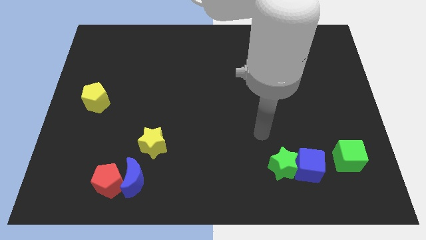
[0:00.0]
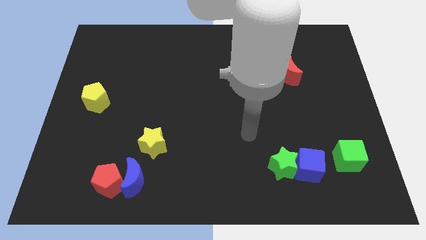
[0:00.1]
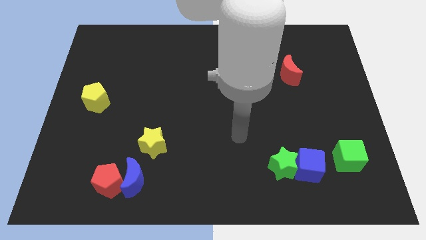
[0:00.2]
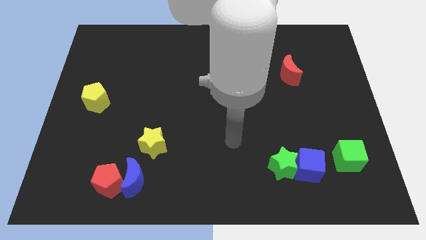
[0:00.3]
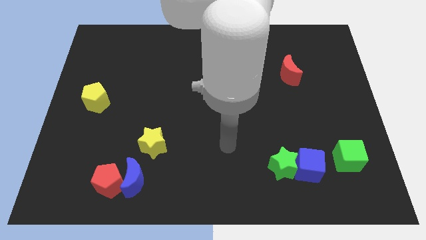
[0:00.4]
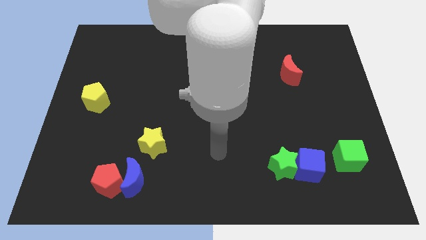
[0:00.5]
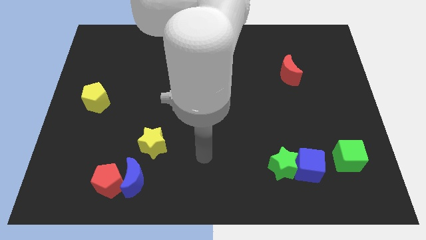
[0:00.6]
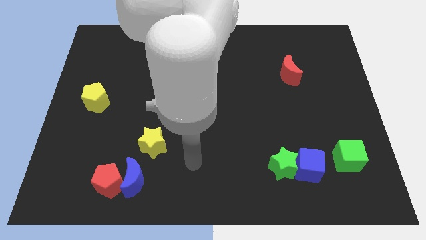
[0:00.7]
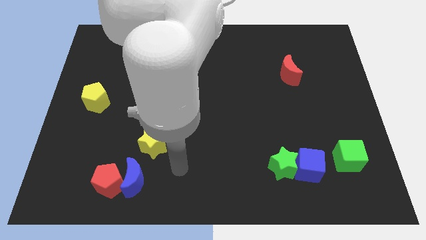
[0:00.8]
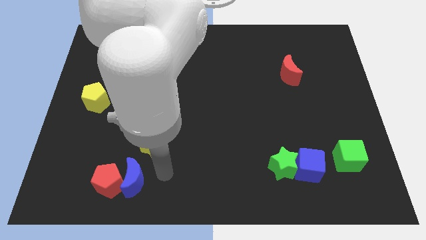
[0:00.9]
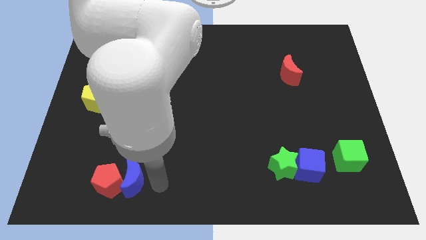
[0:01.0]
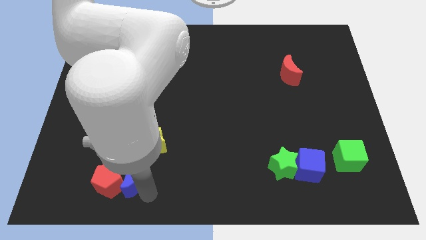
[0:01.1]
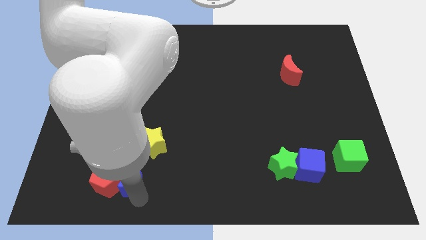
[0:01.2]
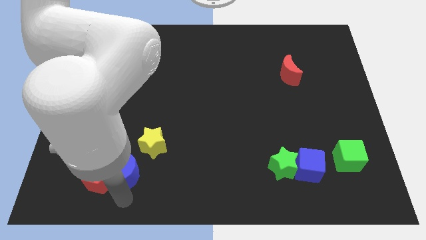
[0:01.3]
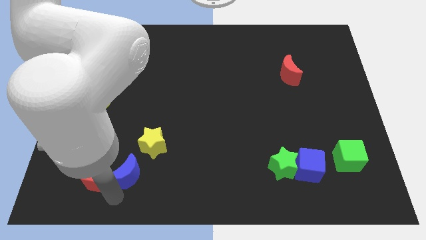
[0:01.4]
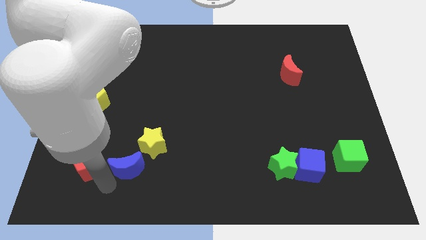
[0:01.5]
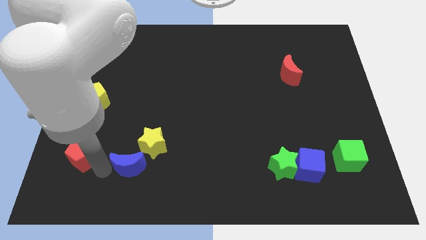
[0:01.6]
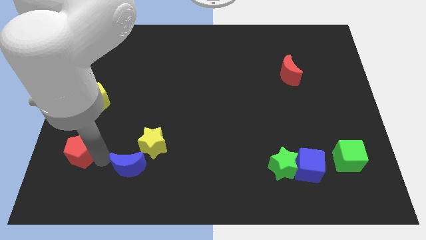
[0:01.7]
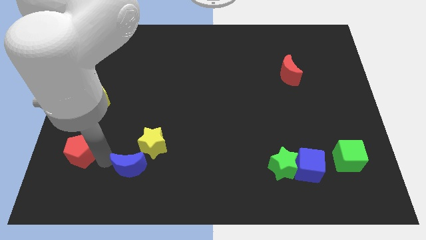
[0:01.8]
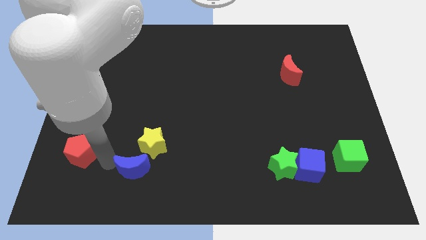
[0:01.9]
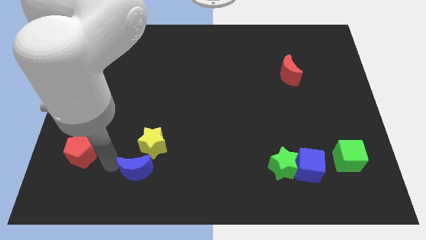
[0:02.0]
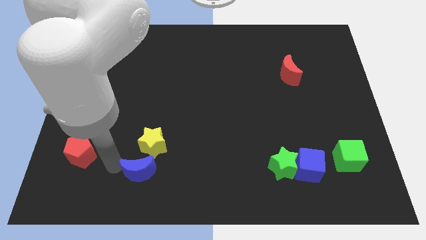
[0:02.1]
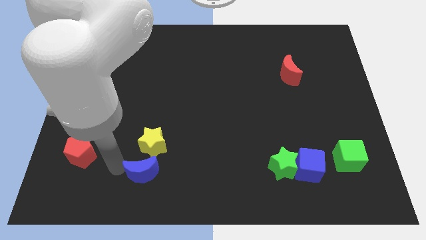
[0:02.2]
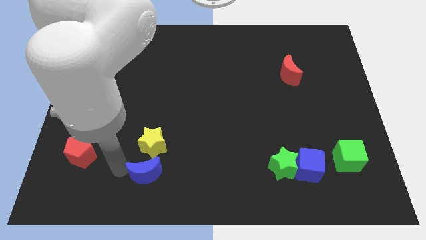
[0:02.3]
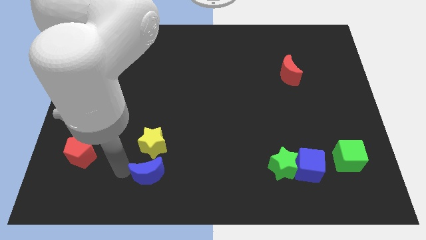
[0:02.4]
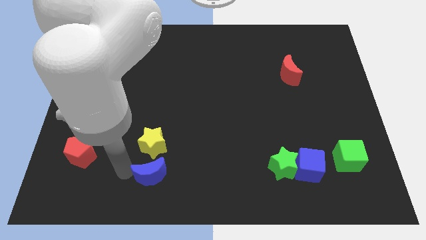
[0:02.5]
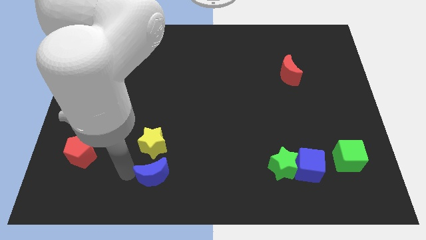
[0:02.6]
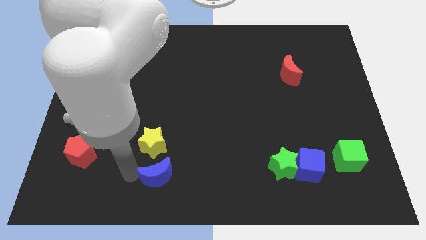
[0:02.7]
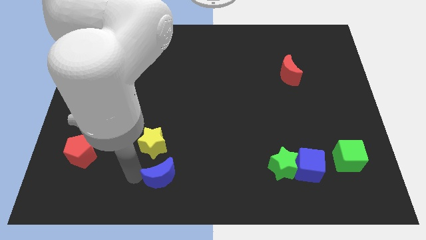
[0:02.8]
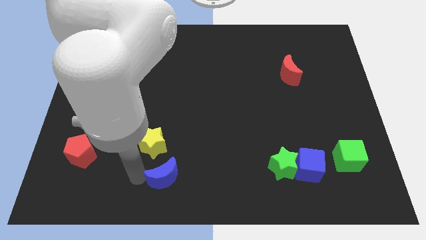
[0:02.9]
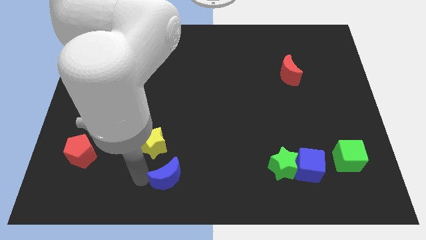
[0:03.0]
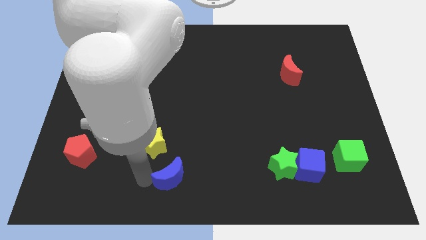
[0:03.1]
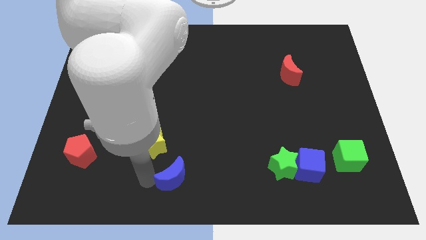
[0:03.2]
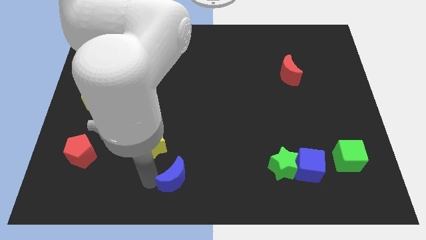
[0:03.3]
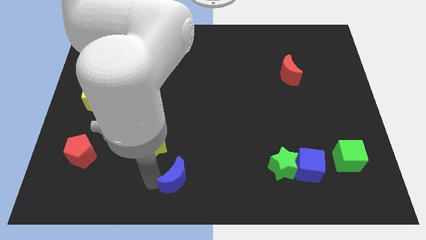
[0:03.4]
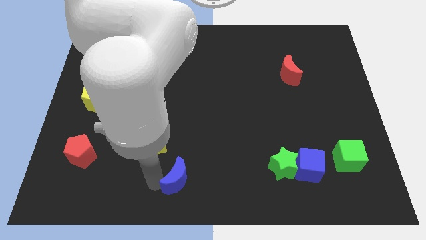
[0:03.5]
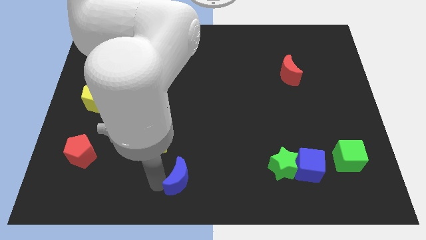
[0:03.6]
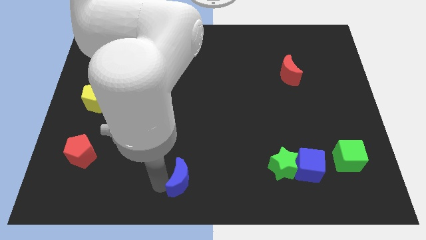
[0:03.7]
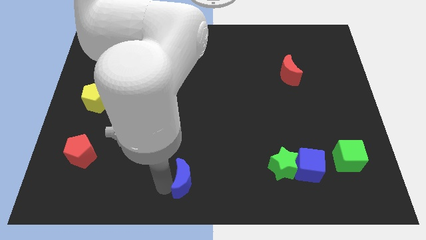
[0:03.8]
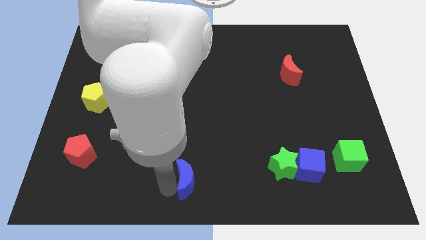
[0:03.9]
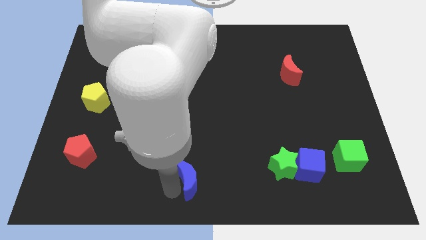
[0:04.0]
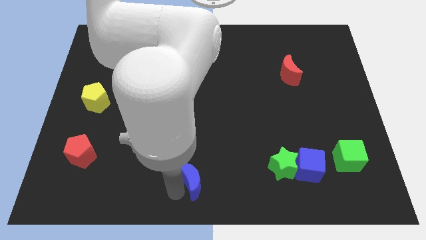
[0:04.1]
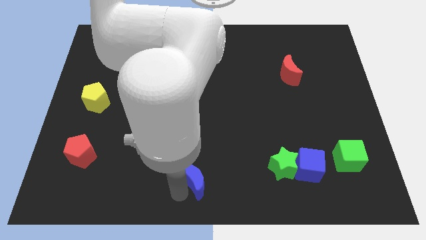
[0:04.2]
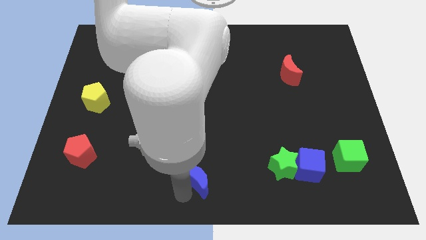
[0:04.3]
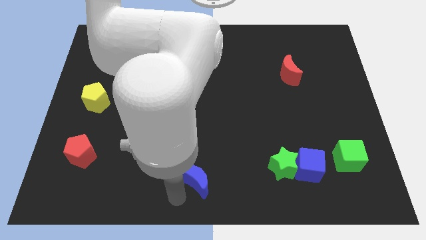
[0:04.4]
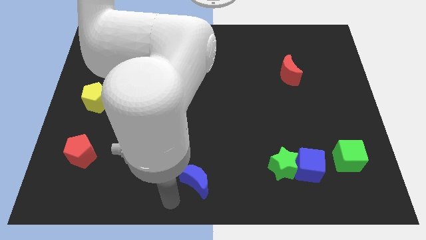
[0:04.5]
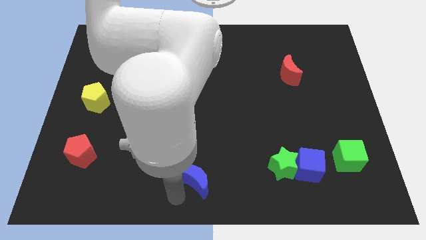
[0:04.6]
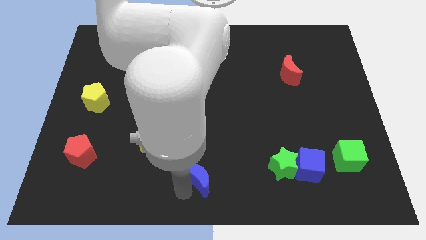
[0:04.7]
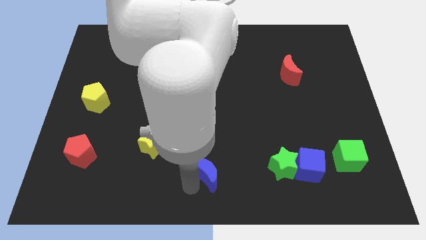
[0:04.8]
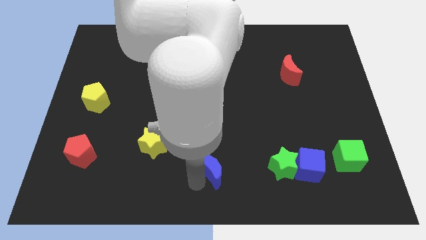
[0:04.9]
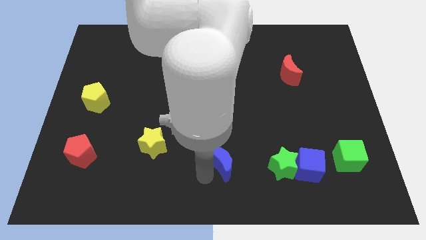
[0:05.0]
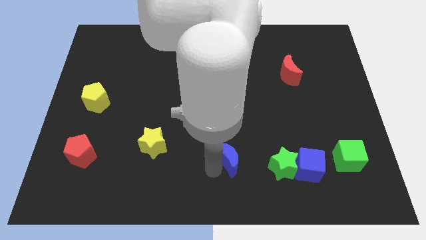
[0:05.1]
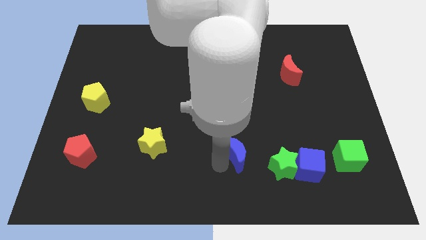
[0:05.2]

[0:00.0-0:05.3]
slide the blue moon to the top left of the green star

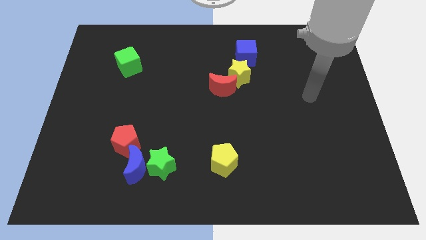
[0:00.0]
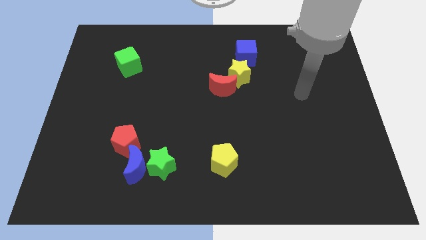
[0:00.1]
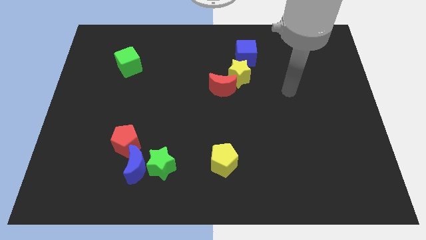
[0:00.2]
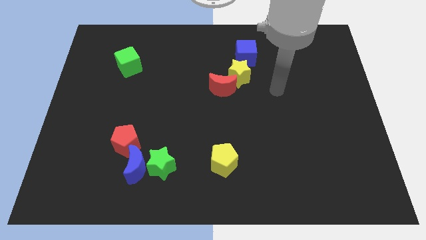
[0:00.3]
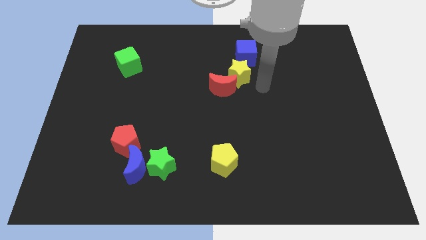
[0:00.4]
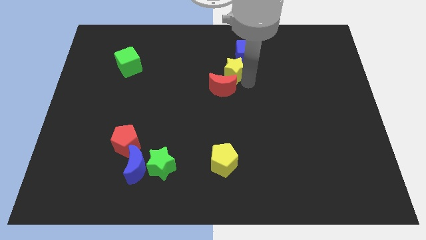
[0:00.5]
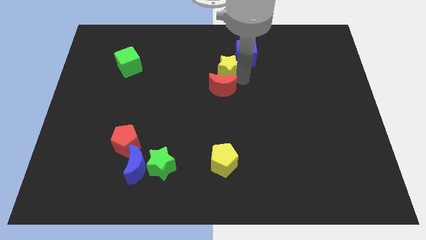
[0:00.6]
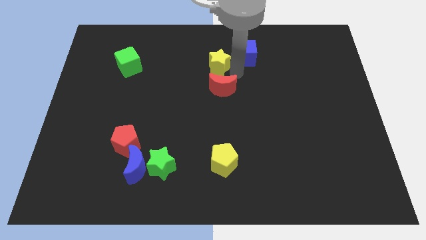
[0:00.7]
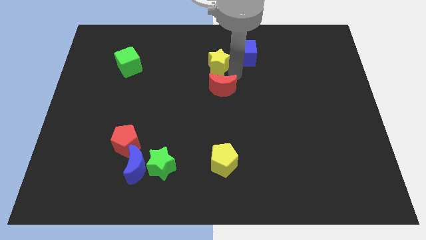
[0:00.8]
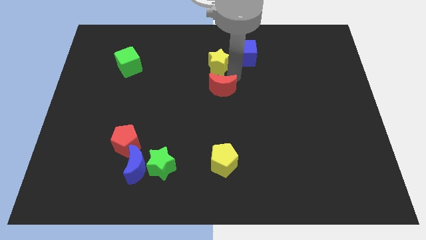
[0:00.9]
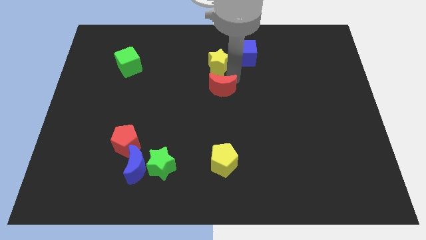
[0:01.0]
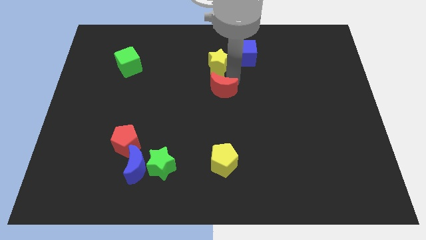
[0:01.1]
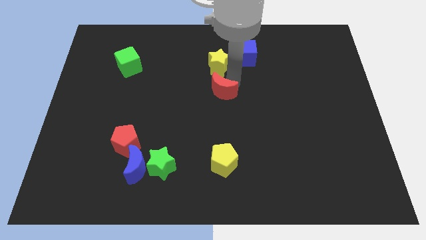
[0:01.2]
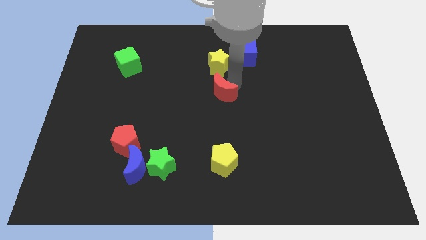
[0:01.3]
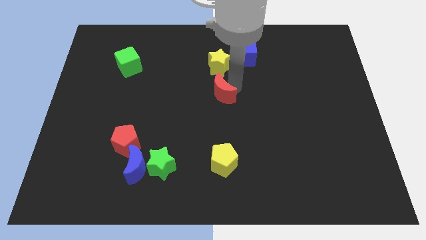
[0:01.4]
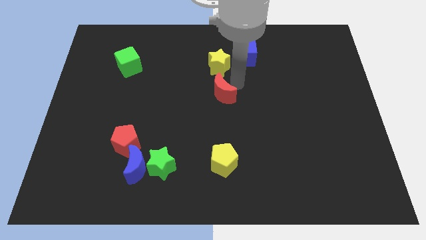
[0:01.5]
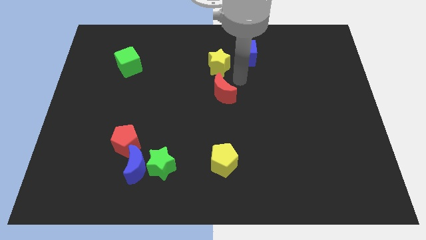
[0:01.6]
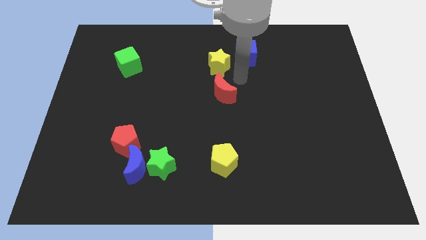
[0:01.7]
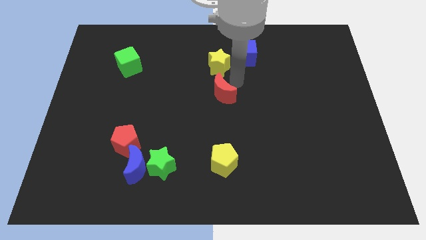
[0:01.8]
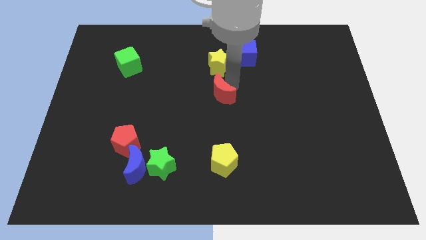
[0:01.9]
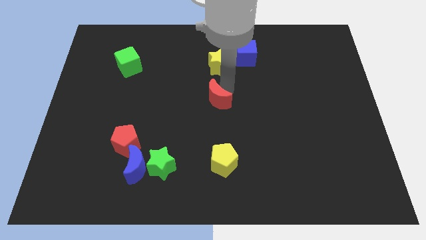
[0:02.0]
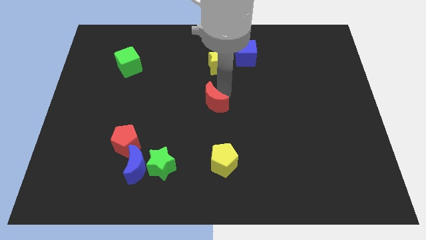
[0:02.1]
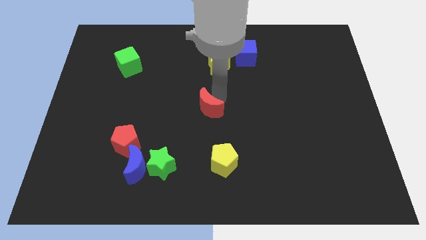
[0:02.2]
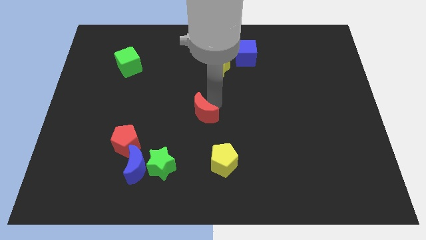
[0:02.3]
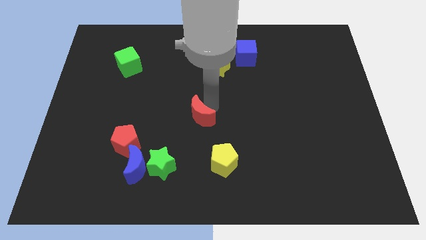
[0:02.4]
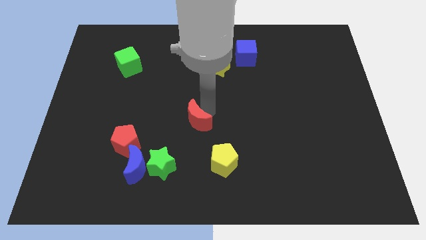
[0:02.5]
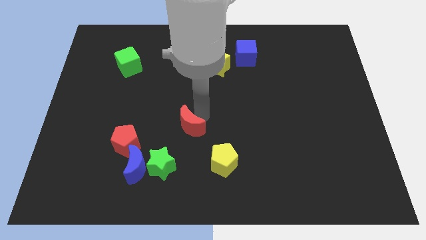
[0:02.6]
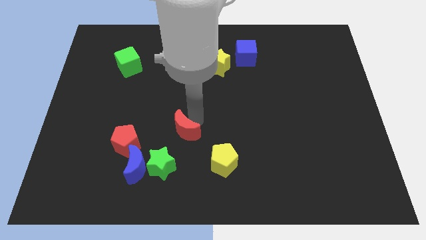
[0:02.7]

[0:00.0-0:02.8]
push the red moon right of the red pentagon
